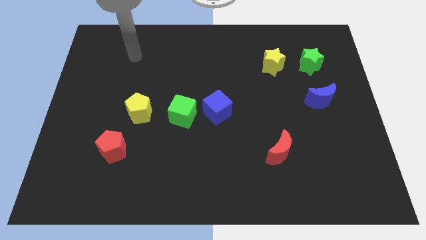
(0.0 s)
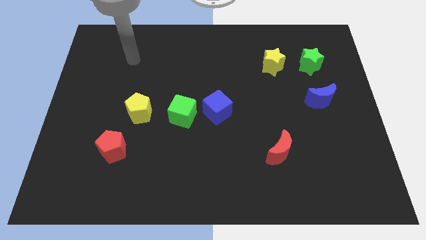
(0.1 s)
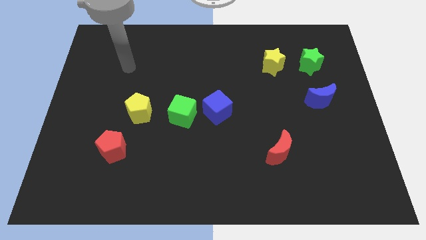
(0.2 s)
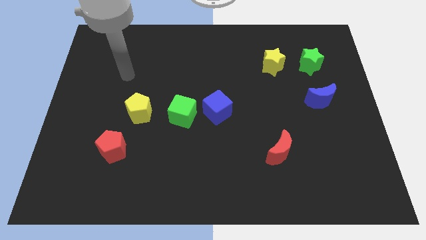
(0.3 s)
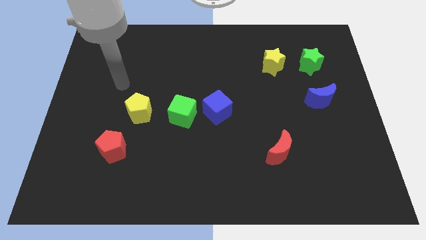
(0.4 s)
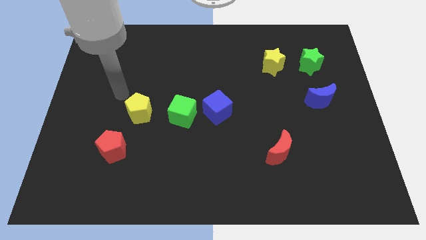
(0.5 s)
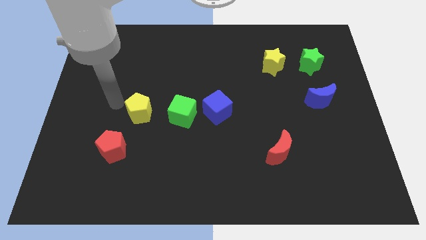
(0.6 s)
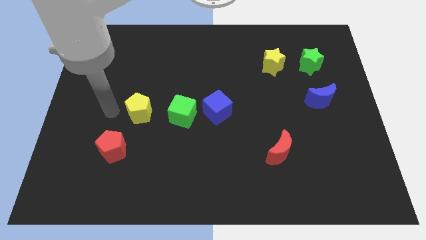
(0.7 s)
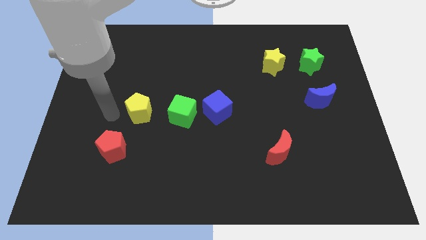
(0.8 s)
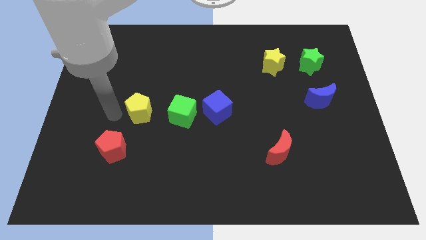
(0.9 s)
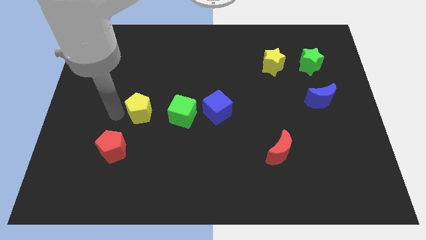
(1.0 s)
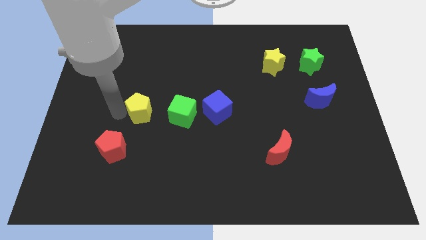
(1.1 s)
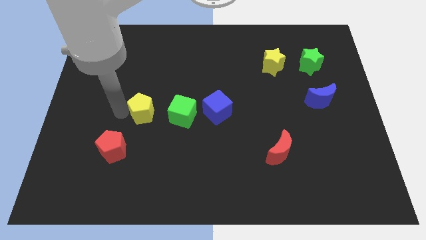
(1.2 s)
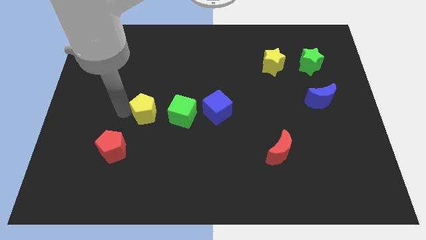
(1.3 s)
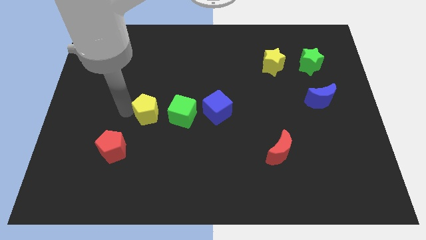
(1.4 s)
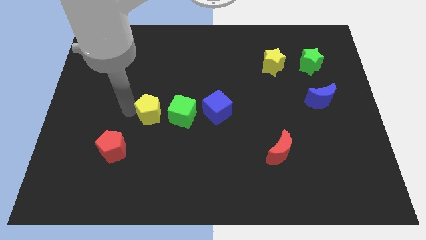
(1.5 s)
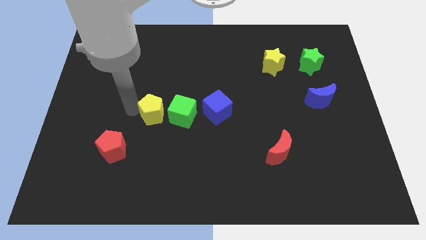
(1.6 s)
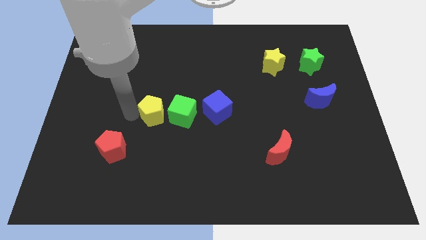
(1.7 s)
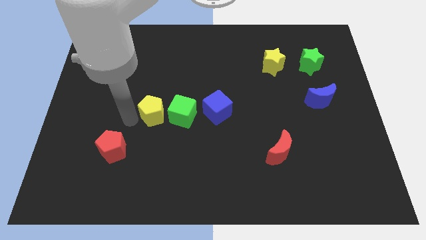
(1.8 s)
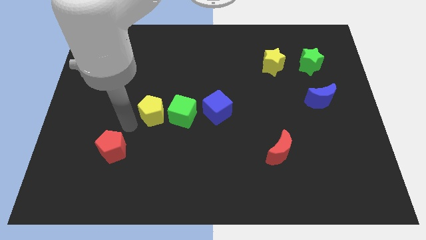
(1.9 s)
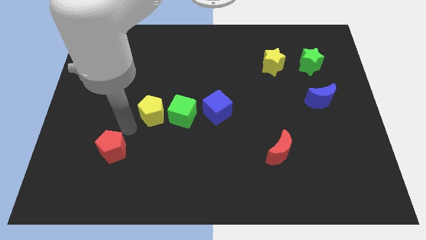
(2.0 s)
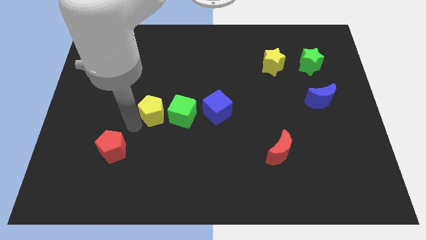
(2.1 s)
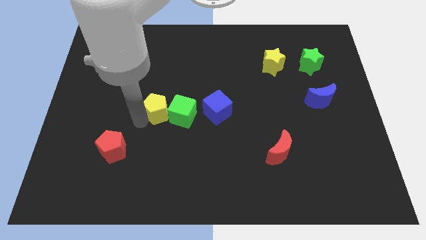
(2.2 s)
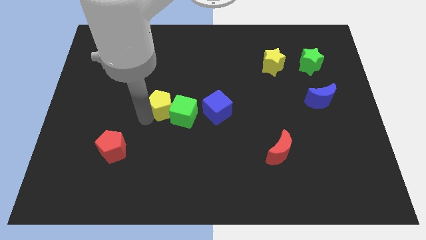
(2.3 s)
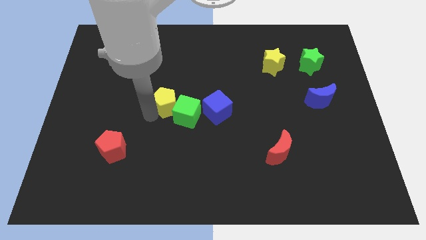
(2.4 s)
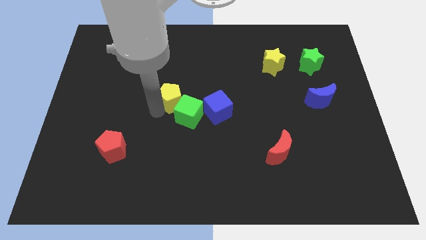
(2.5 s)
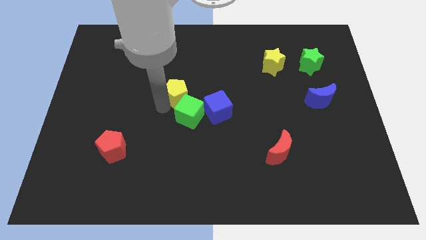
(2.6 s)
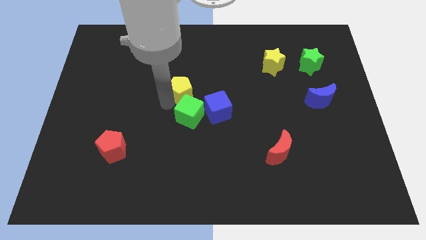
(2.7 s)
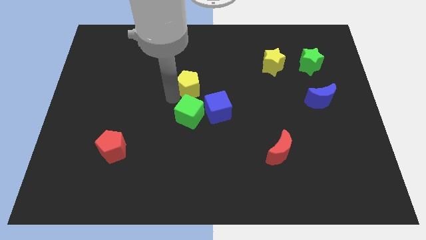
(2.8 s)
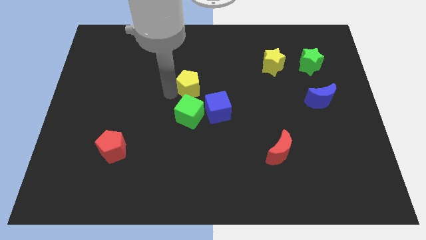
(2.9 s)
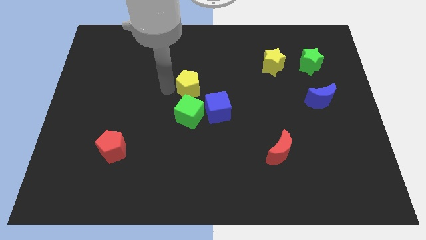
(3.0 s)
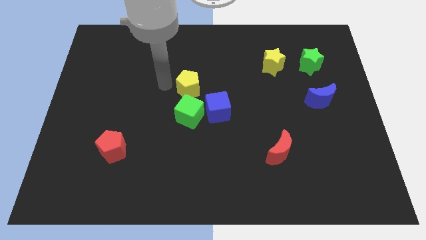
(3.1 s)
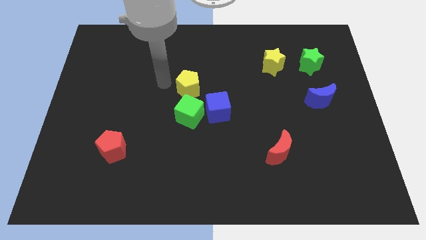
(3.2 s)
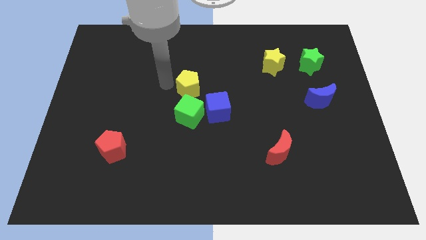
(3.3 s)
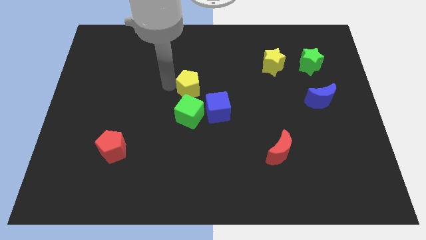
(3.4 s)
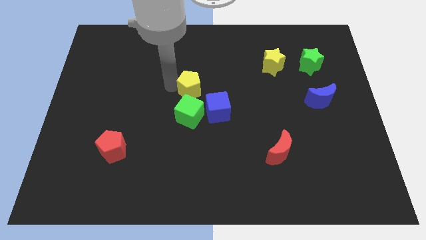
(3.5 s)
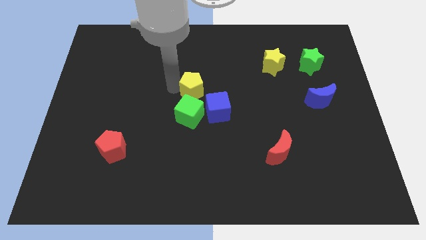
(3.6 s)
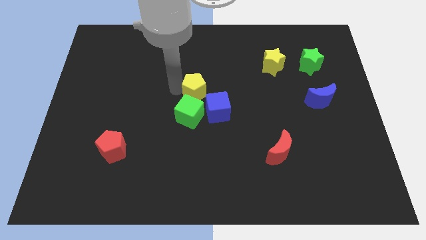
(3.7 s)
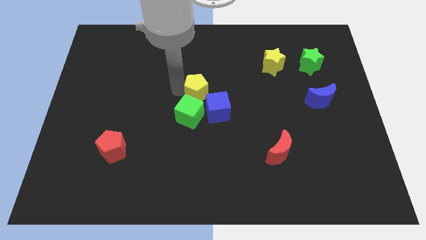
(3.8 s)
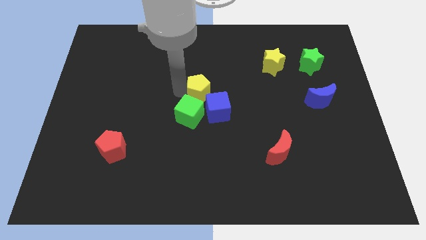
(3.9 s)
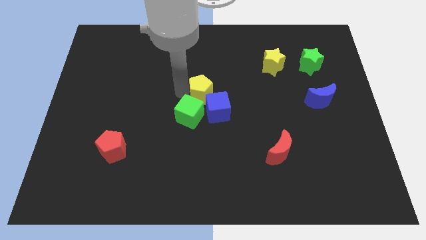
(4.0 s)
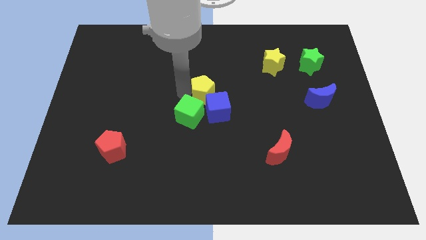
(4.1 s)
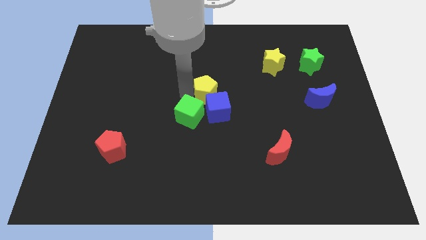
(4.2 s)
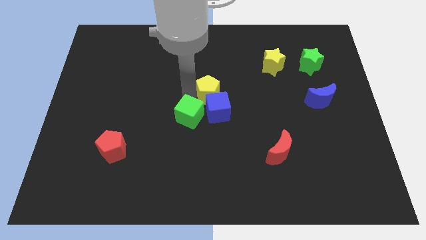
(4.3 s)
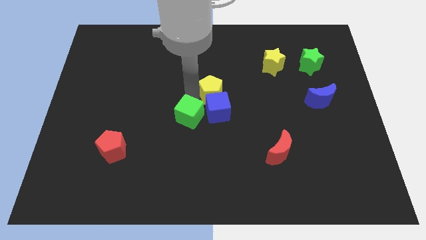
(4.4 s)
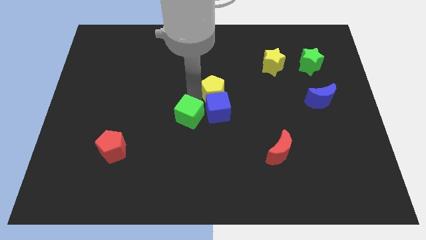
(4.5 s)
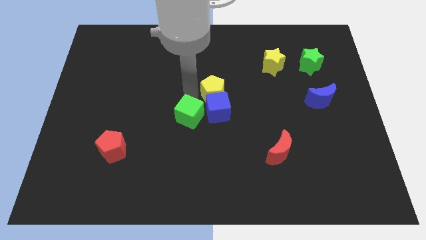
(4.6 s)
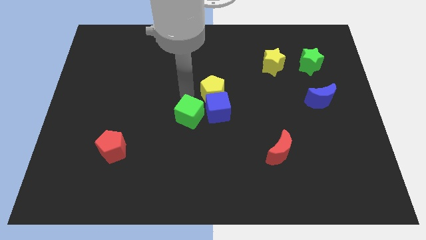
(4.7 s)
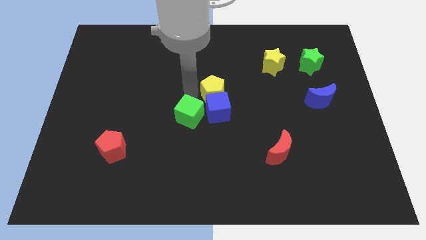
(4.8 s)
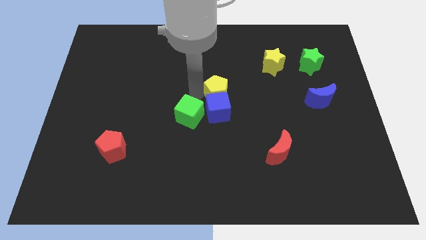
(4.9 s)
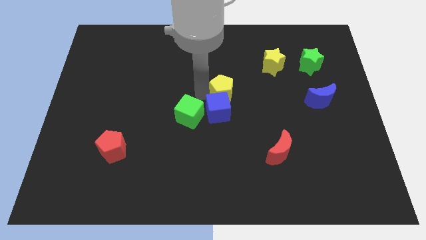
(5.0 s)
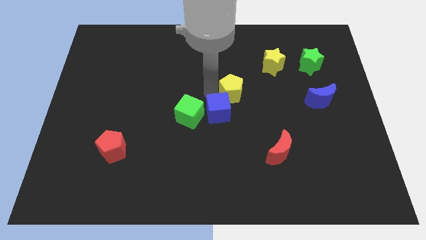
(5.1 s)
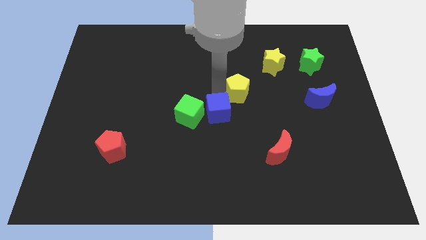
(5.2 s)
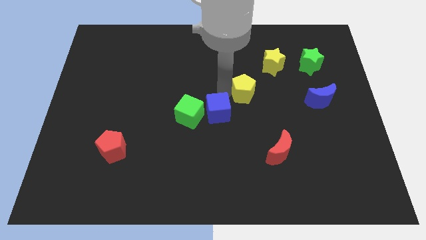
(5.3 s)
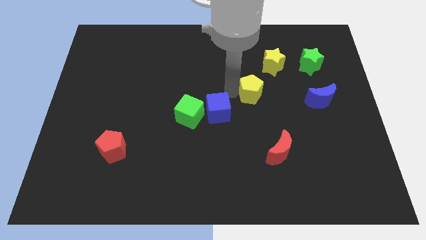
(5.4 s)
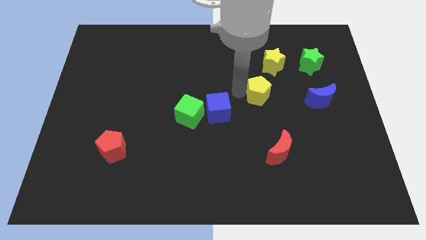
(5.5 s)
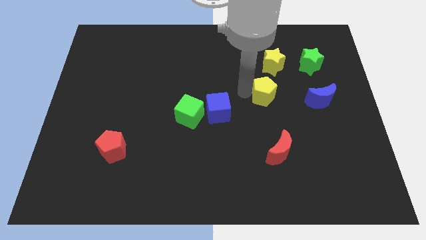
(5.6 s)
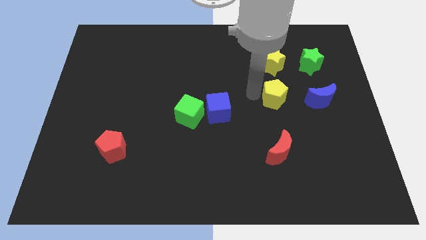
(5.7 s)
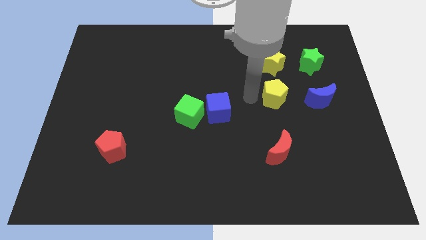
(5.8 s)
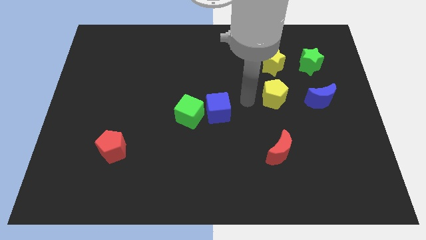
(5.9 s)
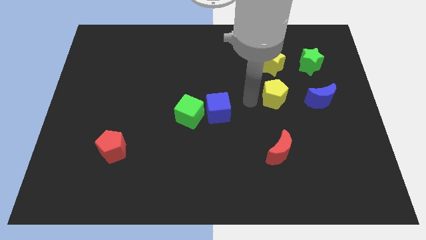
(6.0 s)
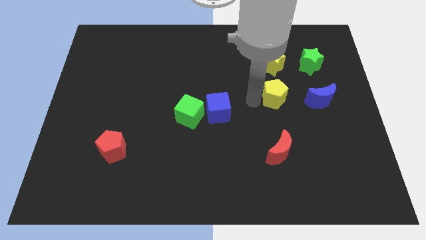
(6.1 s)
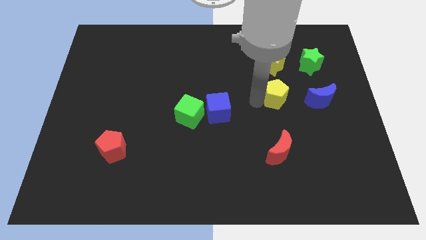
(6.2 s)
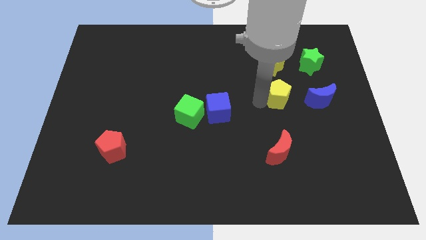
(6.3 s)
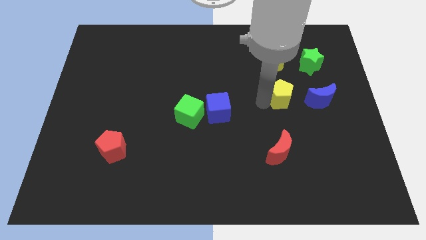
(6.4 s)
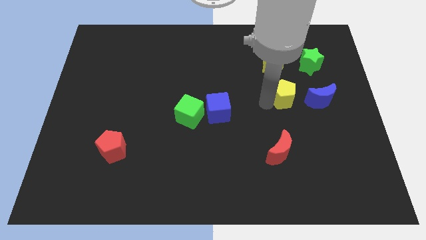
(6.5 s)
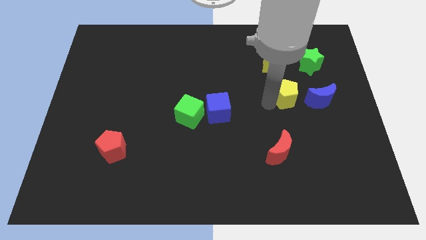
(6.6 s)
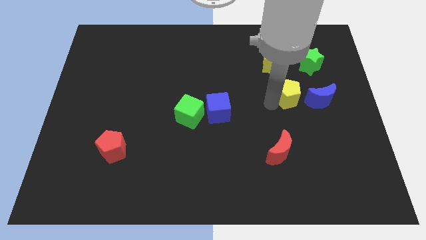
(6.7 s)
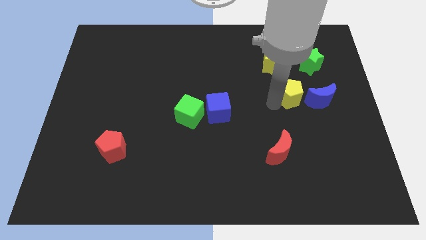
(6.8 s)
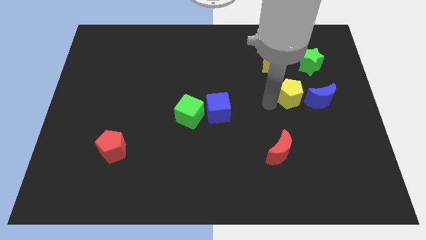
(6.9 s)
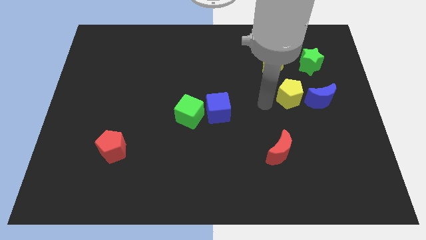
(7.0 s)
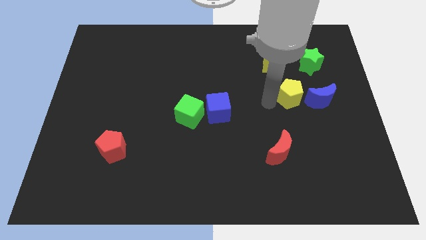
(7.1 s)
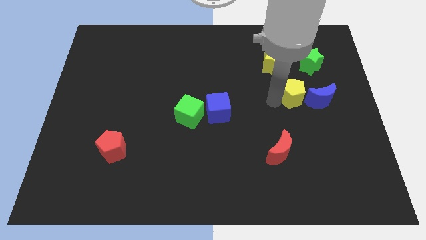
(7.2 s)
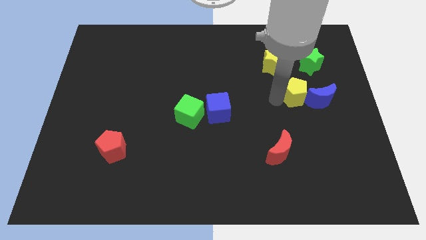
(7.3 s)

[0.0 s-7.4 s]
slide the yellow pentagon to the blue moon

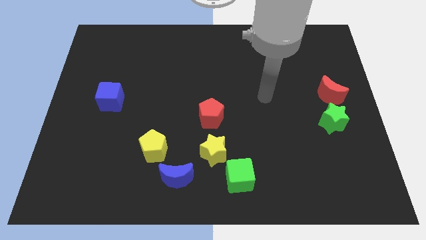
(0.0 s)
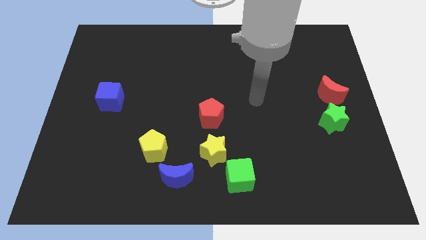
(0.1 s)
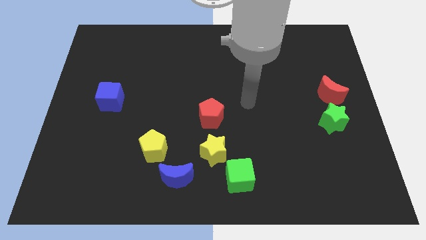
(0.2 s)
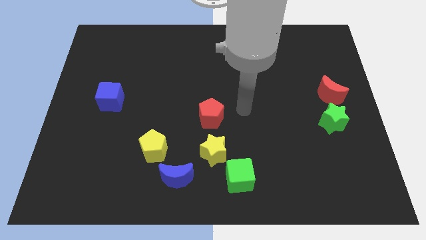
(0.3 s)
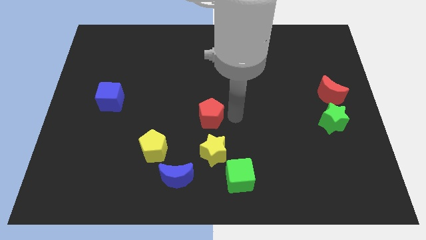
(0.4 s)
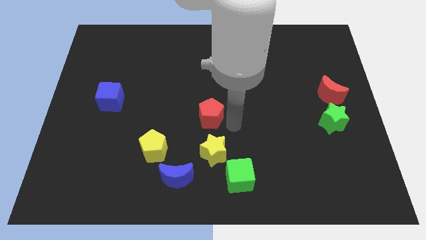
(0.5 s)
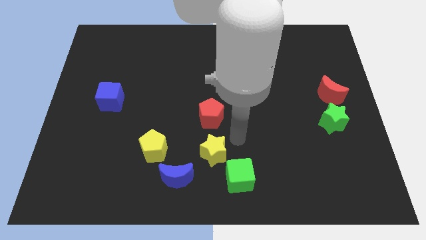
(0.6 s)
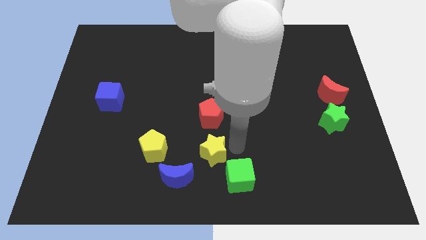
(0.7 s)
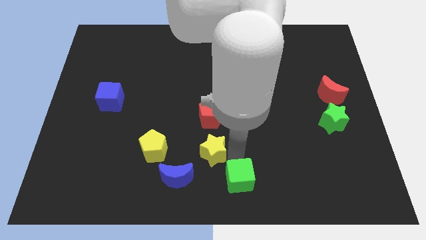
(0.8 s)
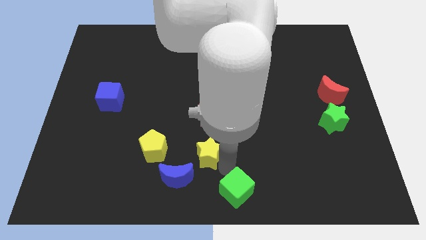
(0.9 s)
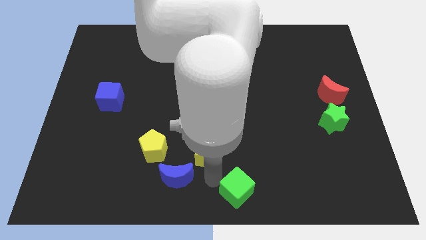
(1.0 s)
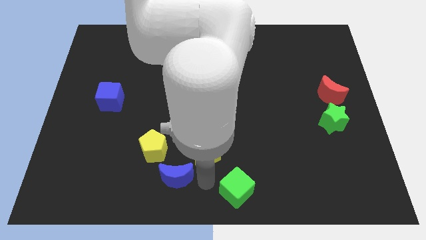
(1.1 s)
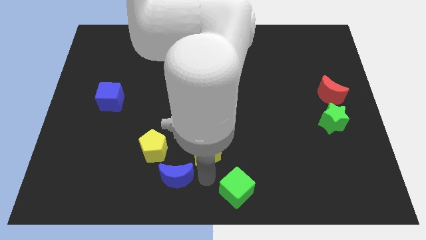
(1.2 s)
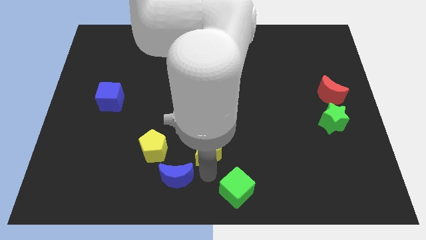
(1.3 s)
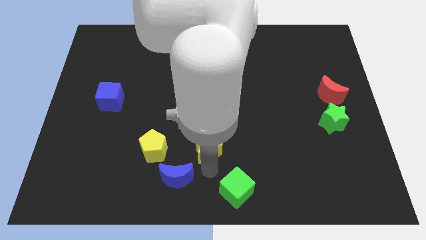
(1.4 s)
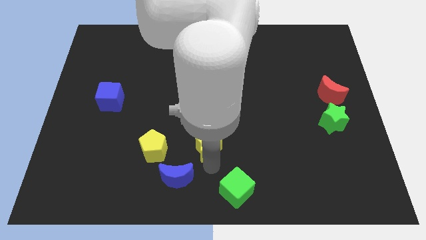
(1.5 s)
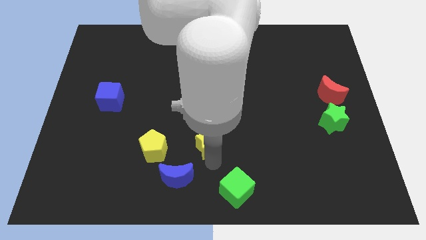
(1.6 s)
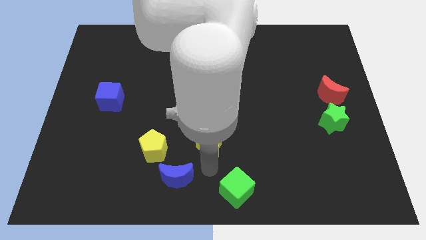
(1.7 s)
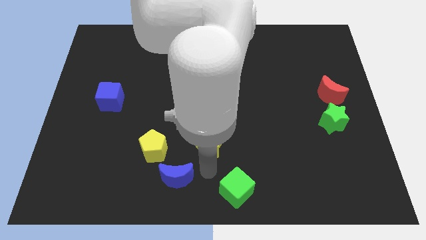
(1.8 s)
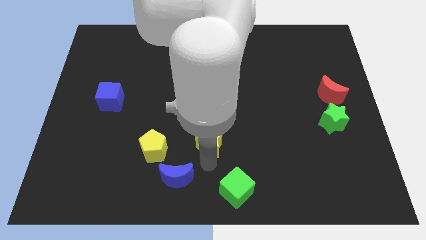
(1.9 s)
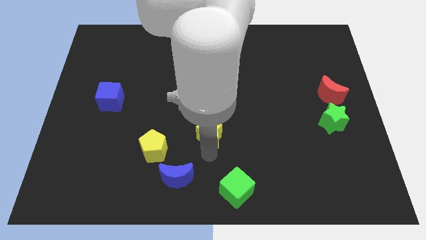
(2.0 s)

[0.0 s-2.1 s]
push the yellow star next to the red pentagon
